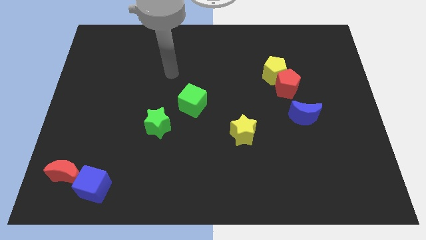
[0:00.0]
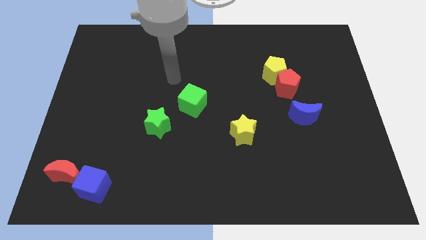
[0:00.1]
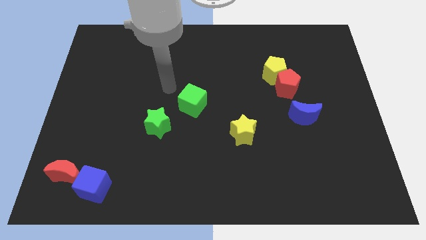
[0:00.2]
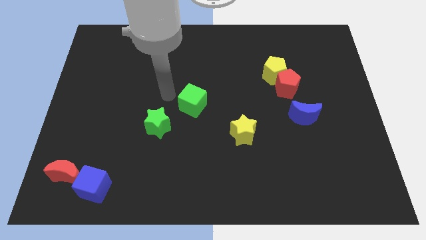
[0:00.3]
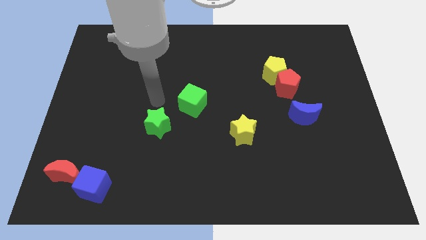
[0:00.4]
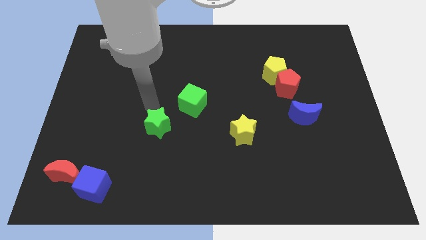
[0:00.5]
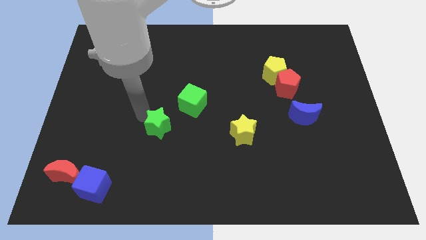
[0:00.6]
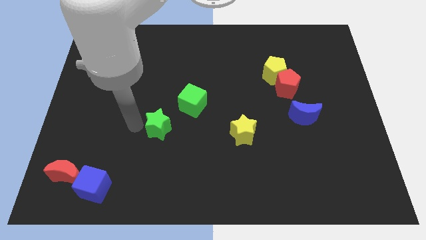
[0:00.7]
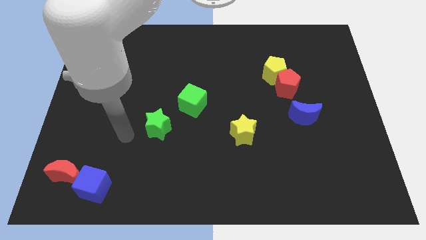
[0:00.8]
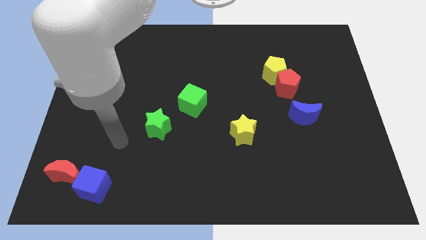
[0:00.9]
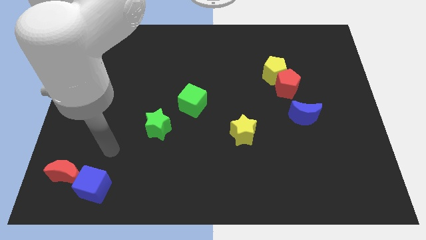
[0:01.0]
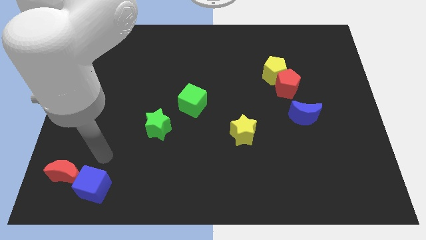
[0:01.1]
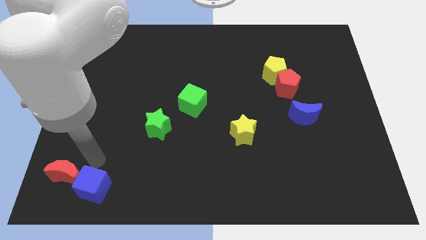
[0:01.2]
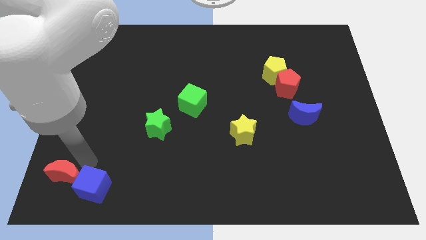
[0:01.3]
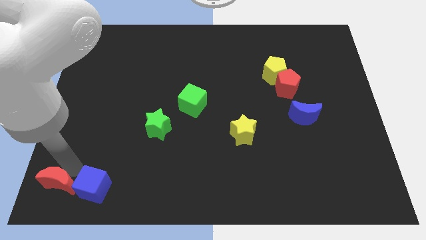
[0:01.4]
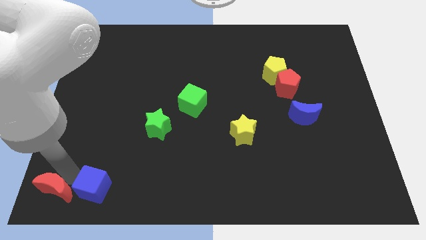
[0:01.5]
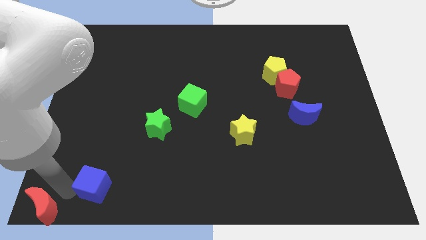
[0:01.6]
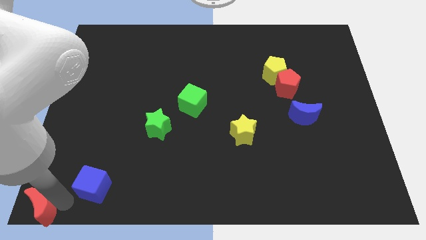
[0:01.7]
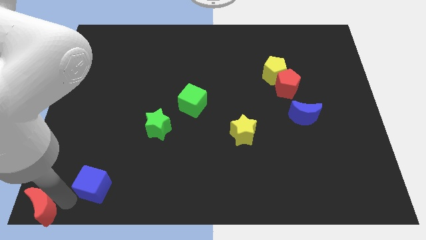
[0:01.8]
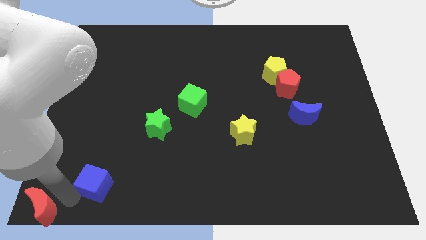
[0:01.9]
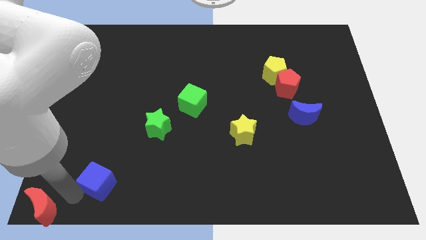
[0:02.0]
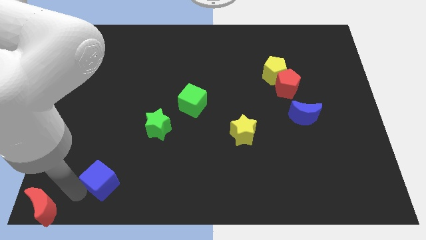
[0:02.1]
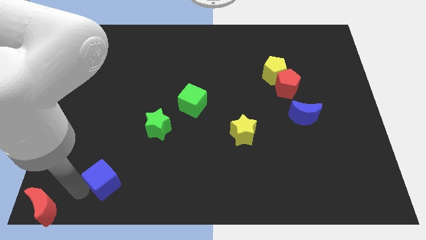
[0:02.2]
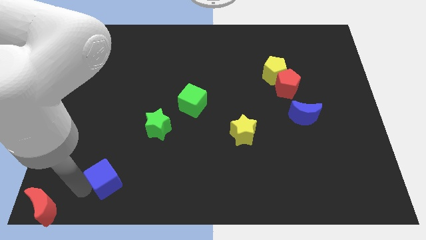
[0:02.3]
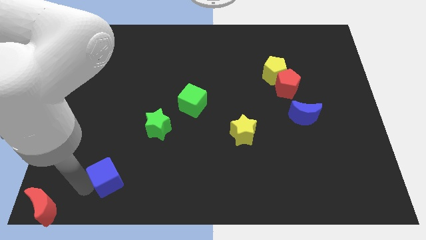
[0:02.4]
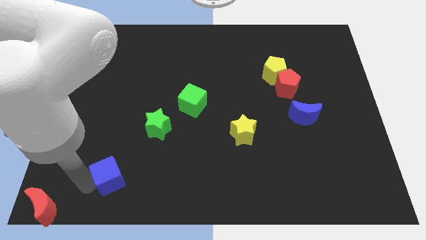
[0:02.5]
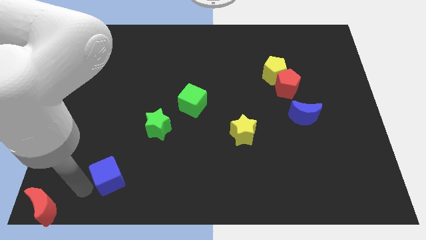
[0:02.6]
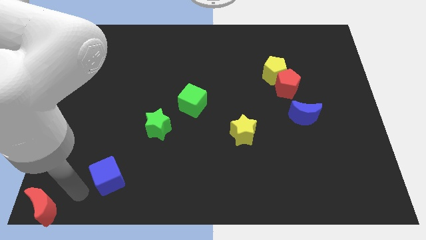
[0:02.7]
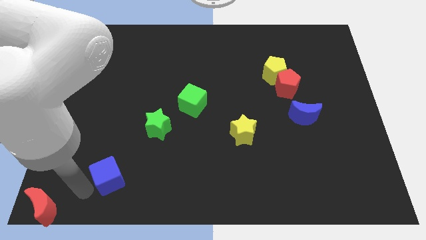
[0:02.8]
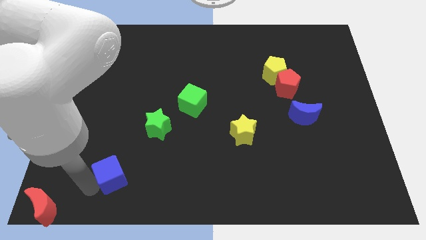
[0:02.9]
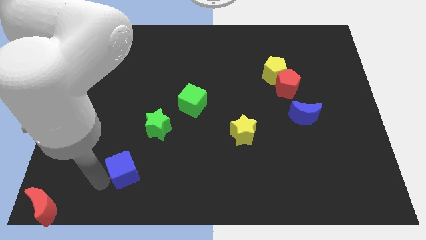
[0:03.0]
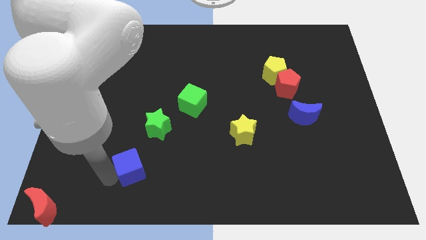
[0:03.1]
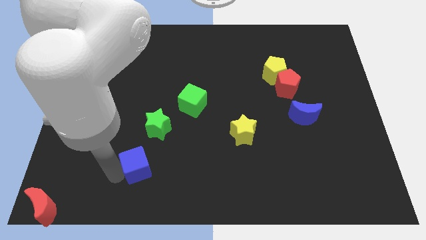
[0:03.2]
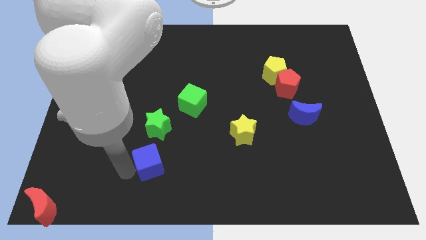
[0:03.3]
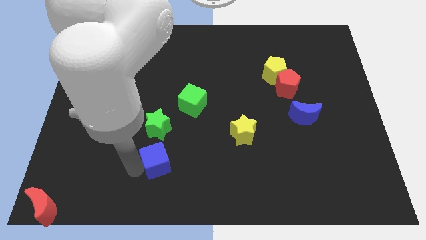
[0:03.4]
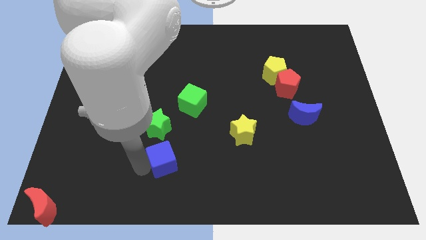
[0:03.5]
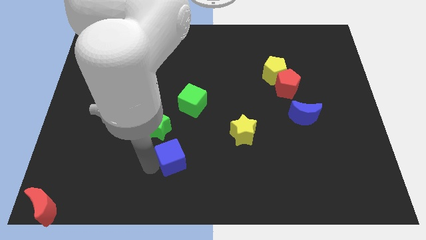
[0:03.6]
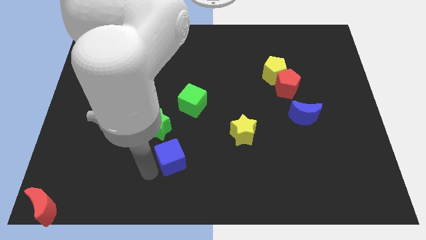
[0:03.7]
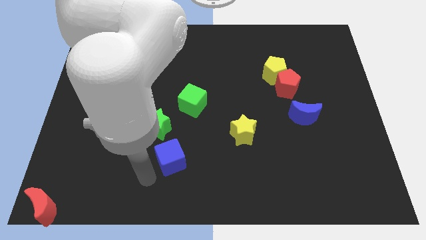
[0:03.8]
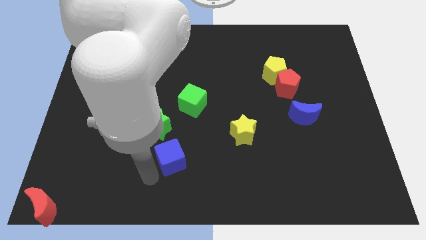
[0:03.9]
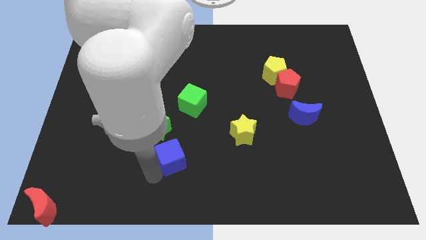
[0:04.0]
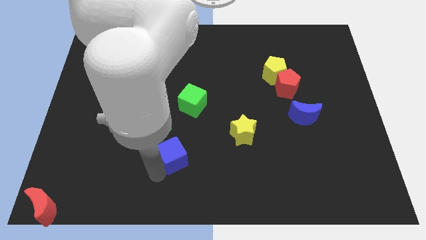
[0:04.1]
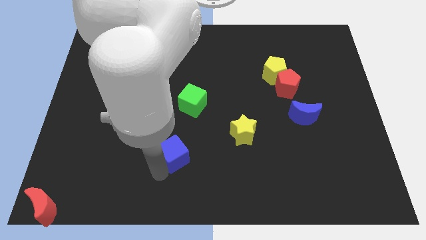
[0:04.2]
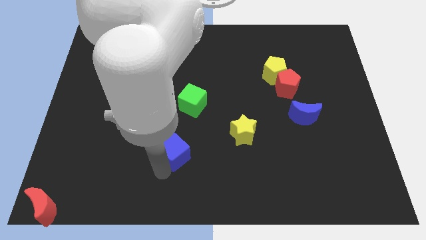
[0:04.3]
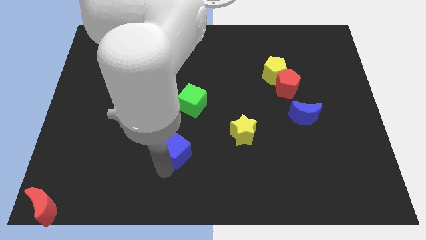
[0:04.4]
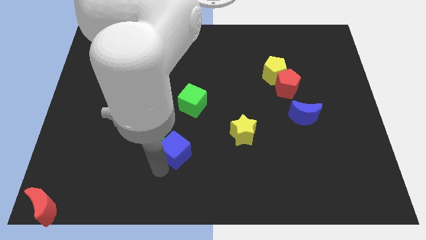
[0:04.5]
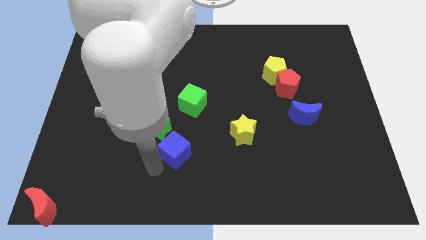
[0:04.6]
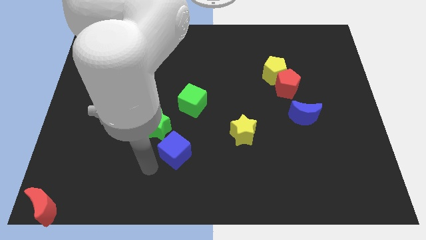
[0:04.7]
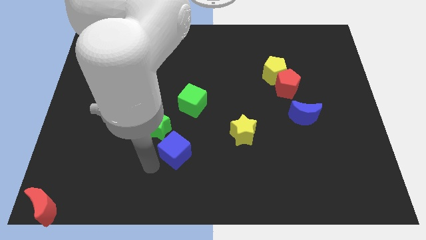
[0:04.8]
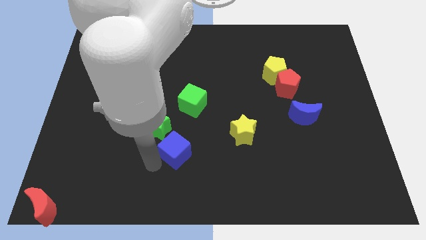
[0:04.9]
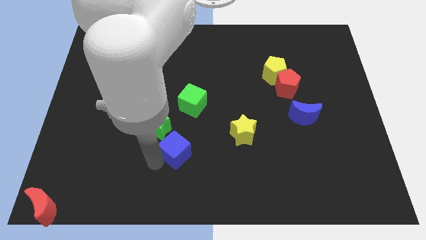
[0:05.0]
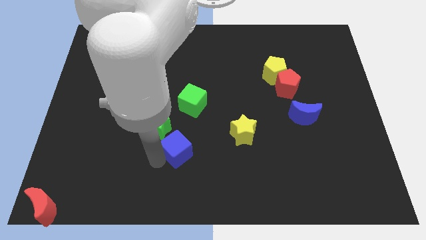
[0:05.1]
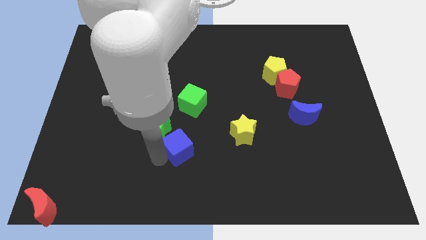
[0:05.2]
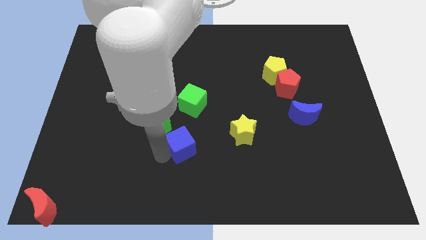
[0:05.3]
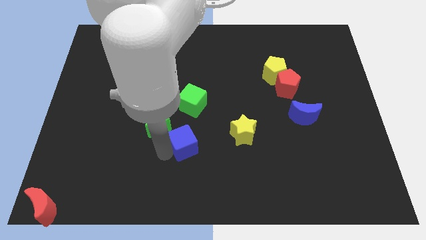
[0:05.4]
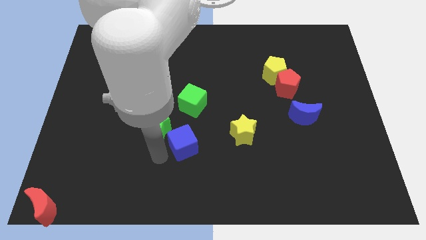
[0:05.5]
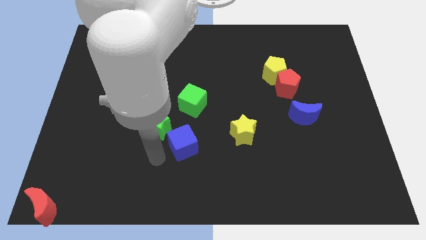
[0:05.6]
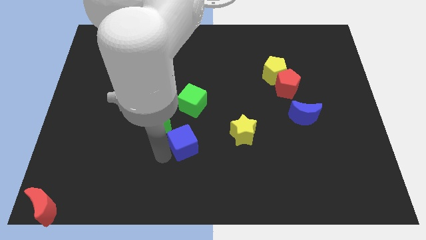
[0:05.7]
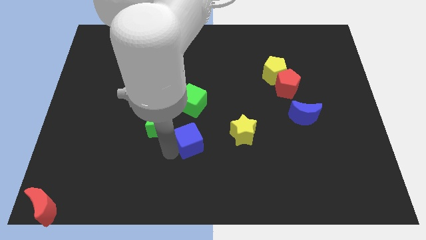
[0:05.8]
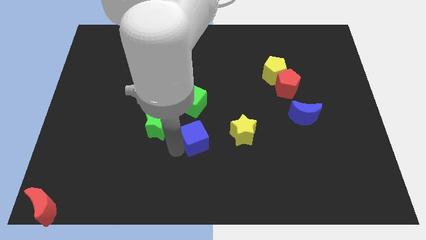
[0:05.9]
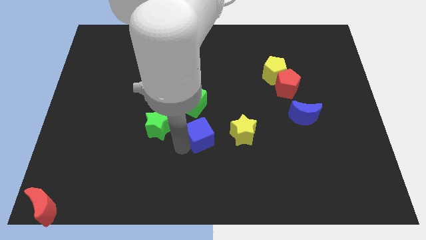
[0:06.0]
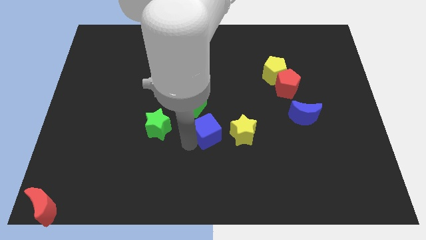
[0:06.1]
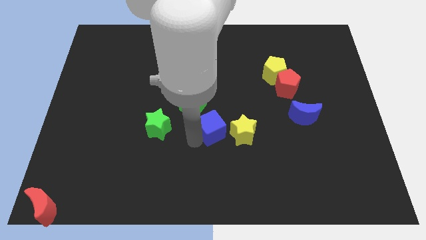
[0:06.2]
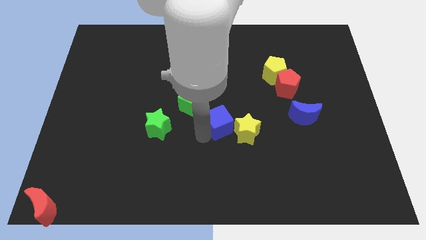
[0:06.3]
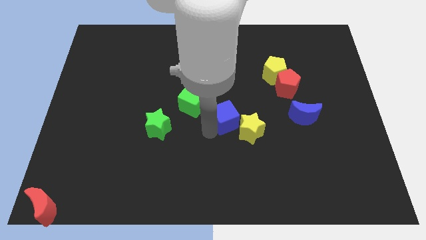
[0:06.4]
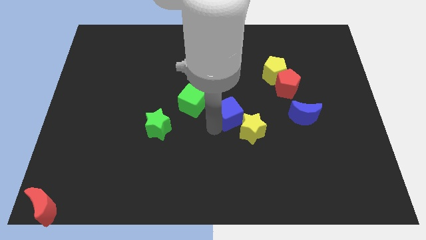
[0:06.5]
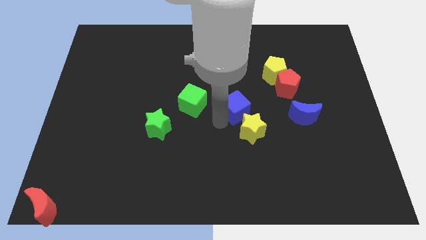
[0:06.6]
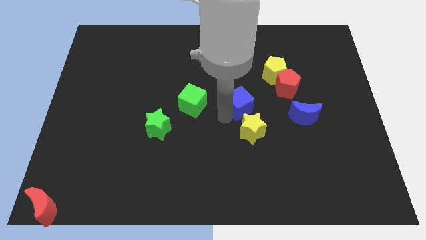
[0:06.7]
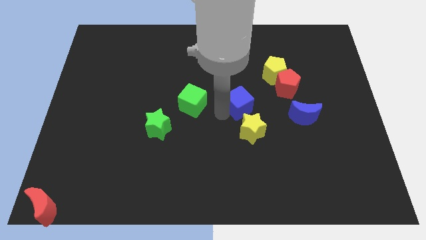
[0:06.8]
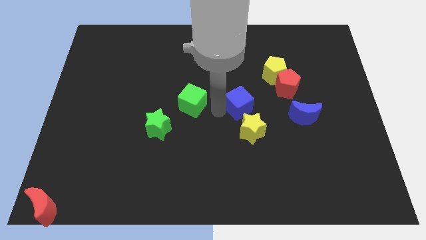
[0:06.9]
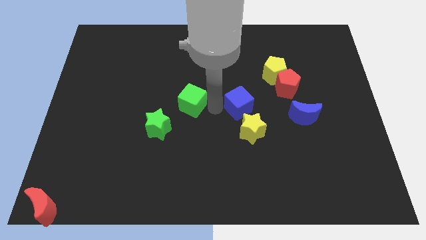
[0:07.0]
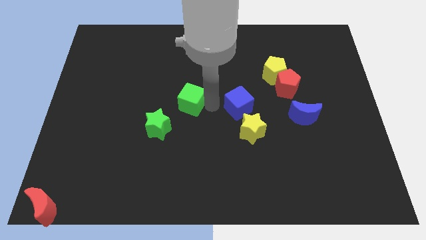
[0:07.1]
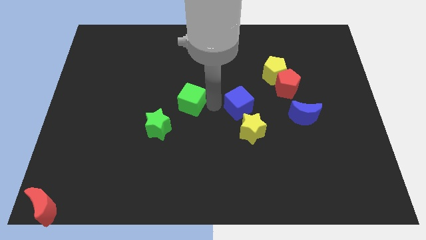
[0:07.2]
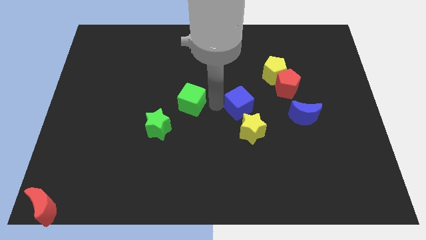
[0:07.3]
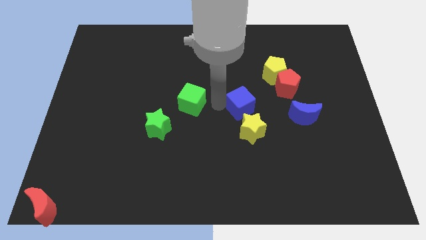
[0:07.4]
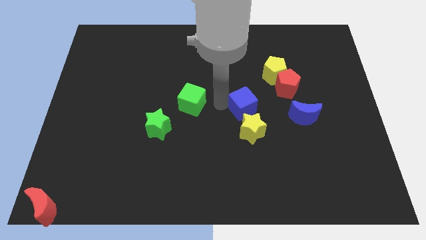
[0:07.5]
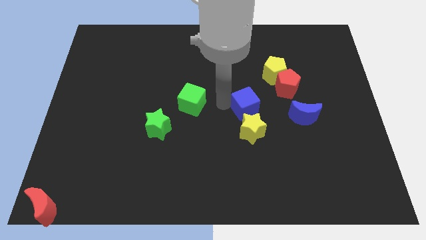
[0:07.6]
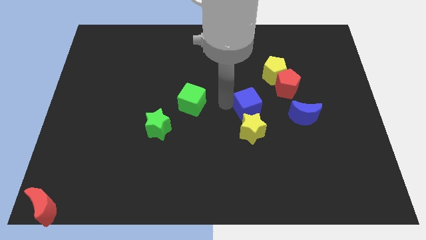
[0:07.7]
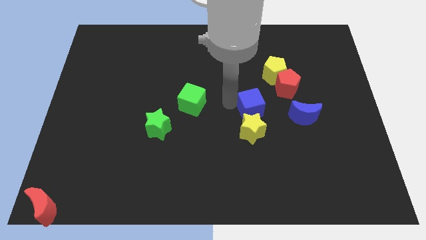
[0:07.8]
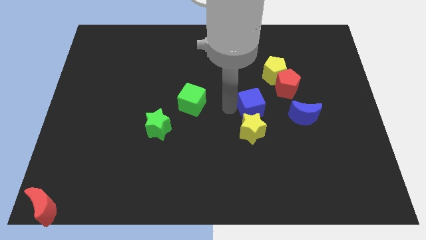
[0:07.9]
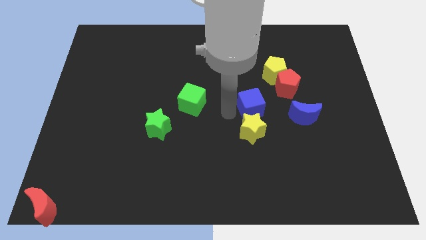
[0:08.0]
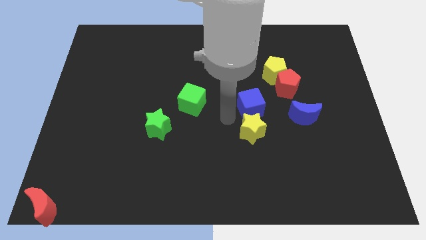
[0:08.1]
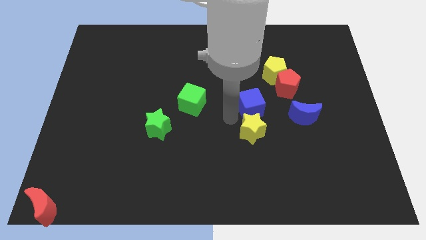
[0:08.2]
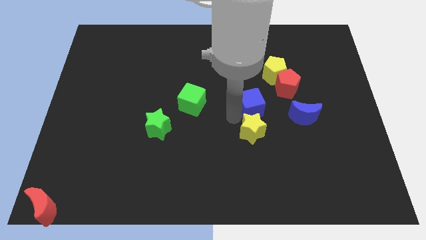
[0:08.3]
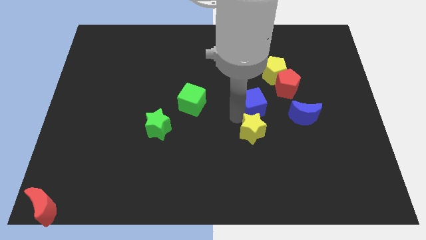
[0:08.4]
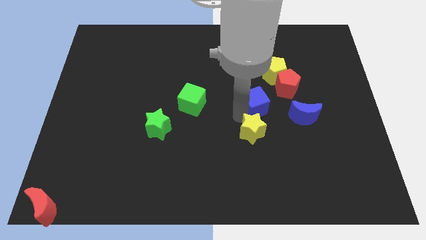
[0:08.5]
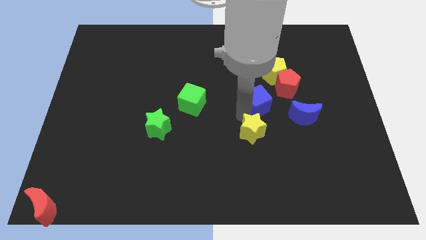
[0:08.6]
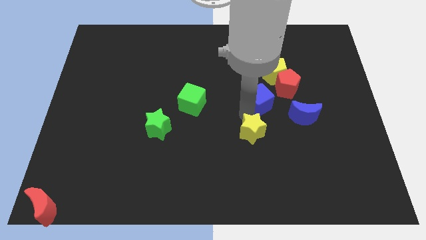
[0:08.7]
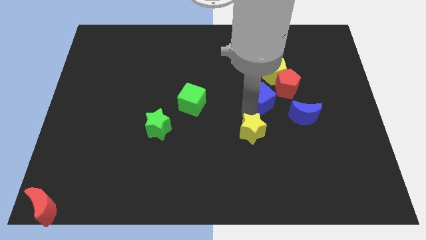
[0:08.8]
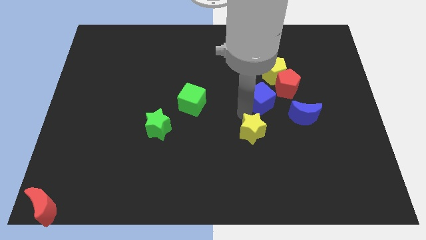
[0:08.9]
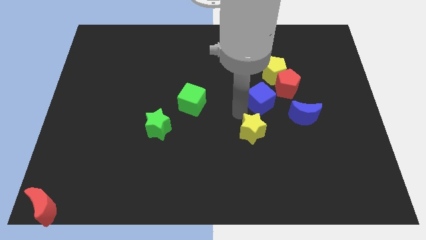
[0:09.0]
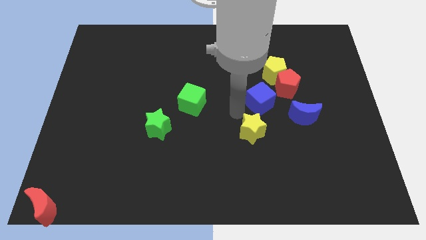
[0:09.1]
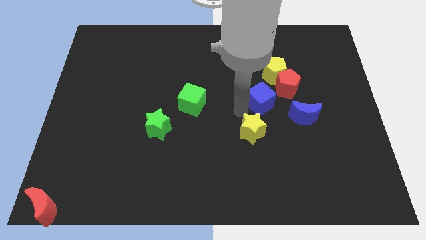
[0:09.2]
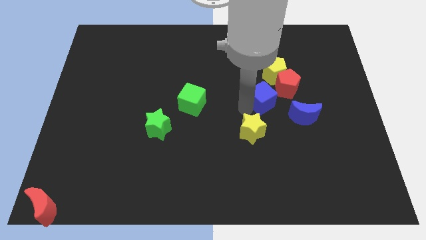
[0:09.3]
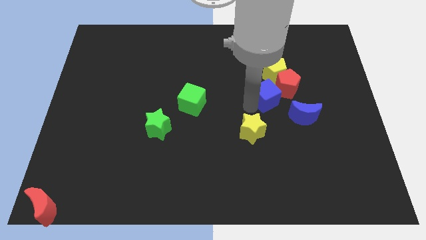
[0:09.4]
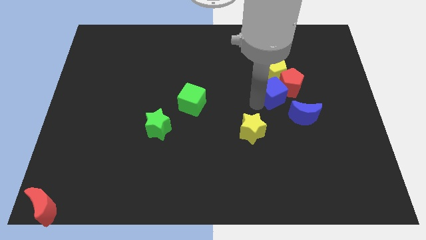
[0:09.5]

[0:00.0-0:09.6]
move the blue cube next to the red pentagon
